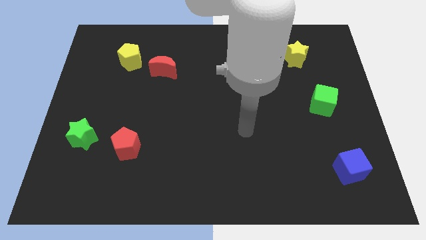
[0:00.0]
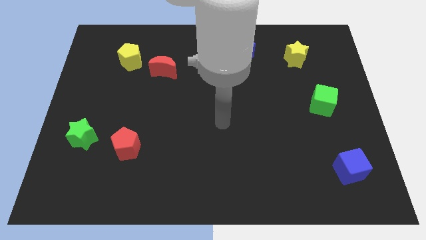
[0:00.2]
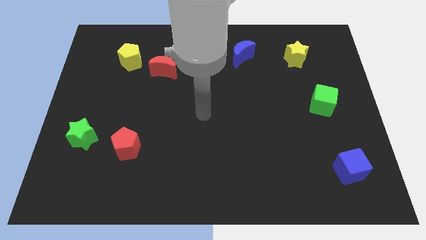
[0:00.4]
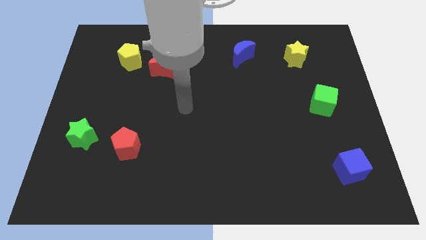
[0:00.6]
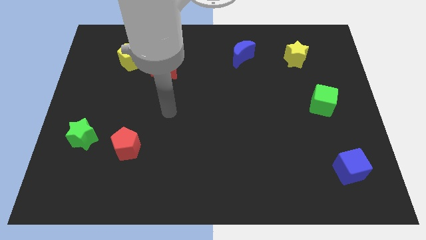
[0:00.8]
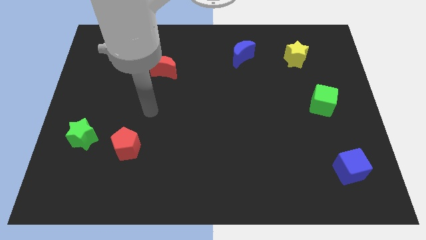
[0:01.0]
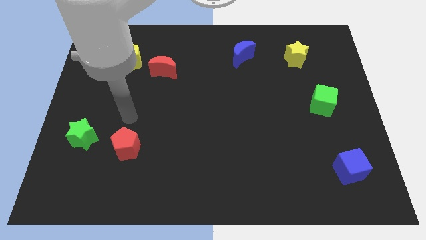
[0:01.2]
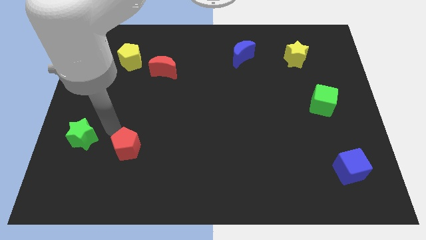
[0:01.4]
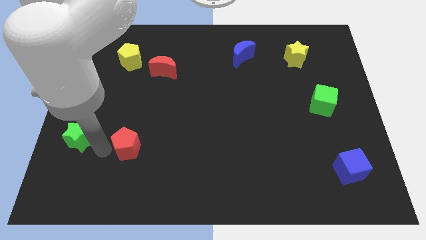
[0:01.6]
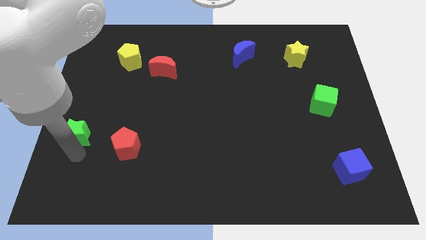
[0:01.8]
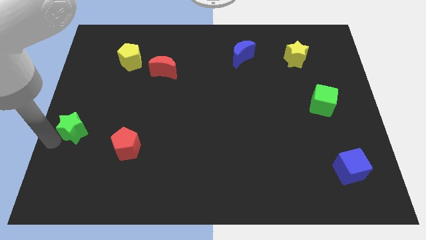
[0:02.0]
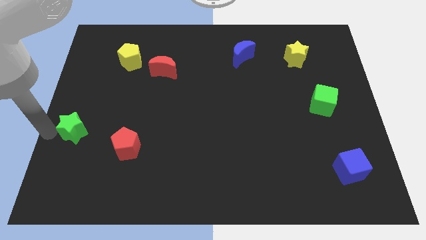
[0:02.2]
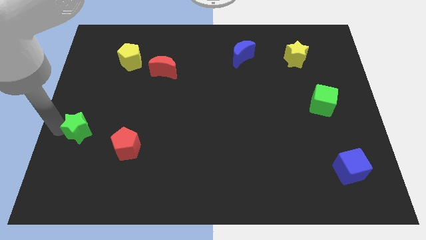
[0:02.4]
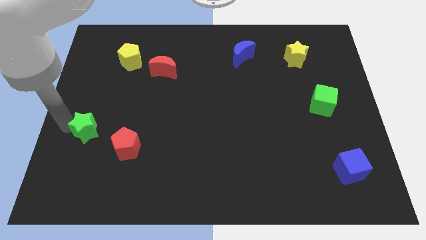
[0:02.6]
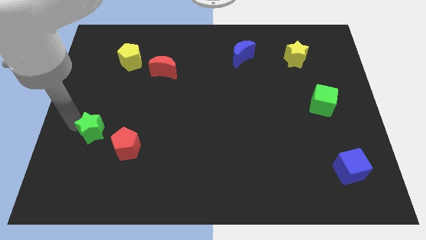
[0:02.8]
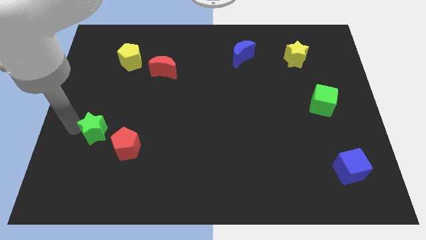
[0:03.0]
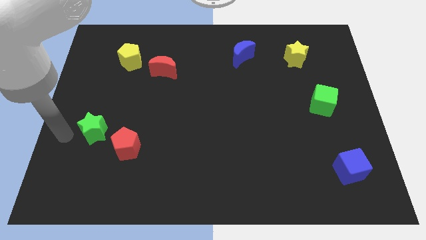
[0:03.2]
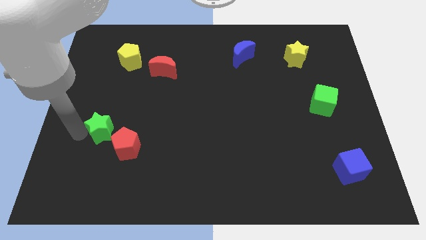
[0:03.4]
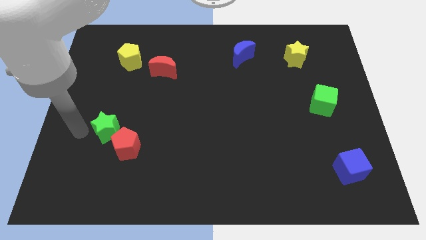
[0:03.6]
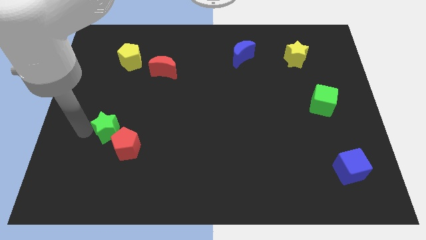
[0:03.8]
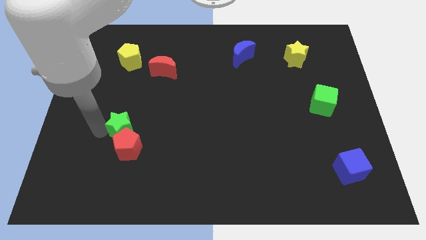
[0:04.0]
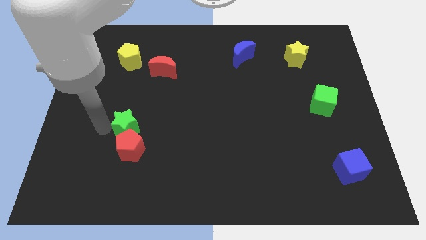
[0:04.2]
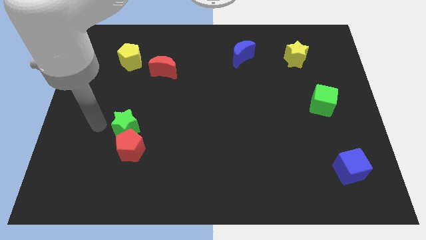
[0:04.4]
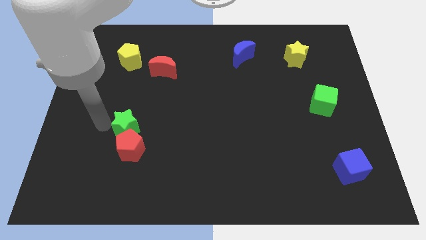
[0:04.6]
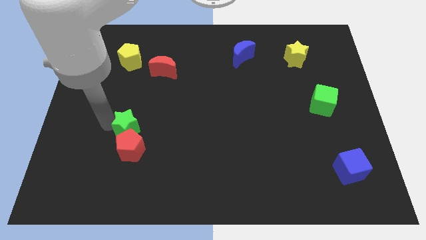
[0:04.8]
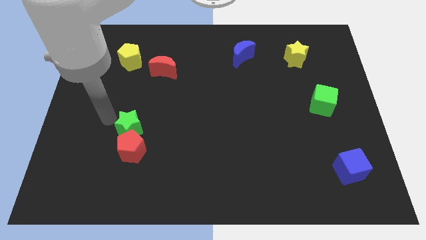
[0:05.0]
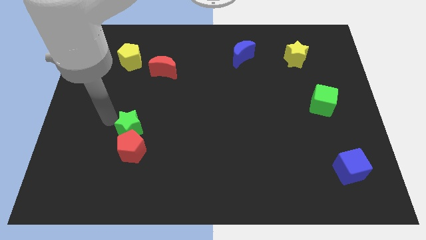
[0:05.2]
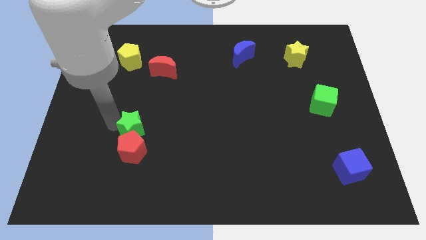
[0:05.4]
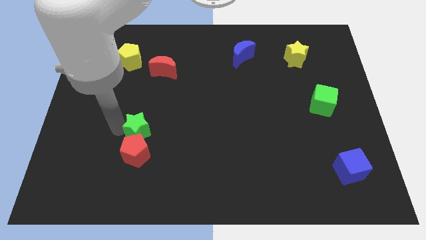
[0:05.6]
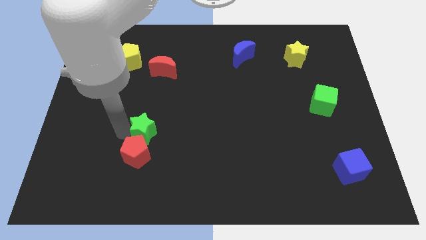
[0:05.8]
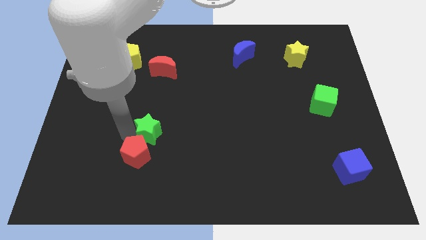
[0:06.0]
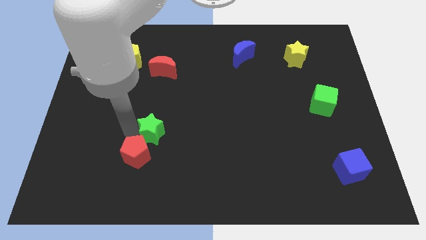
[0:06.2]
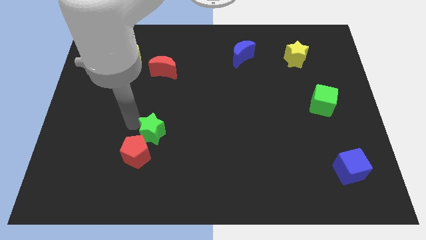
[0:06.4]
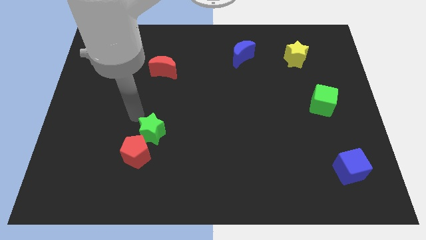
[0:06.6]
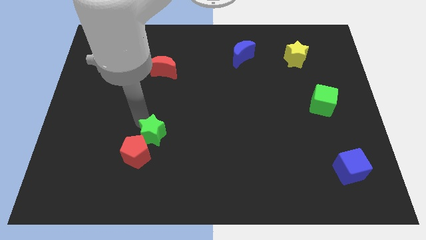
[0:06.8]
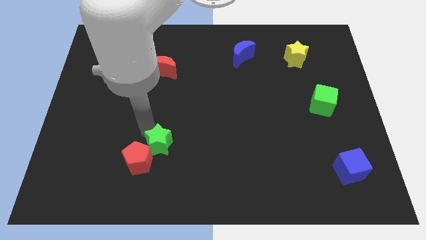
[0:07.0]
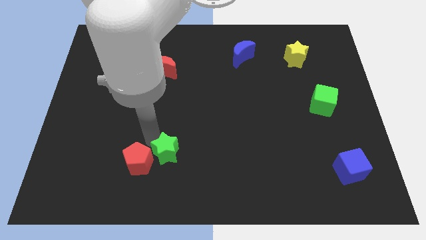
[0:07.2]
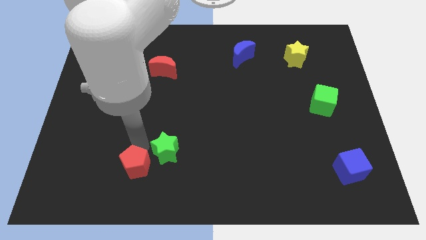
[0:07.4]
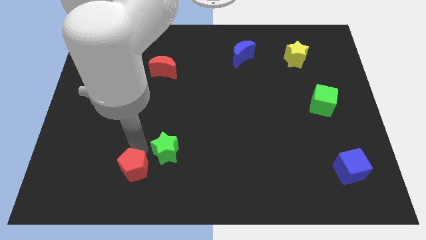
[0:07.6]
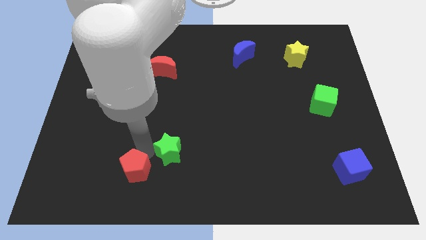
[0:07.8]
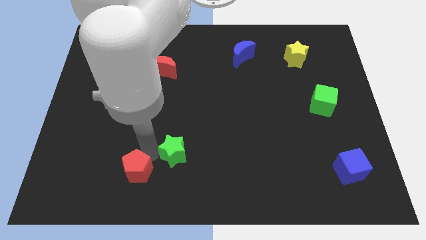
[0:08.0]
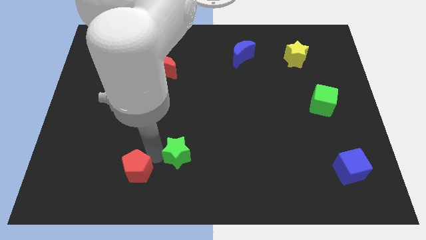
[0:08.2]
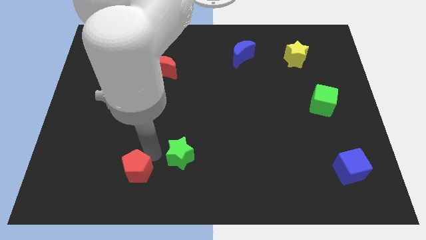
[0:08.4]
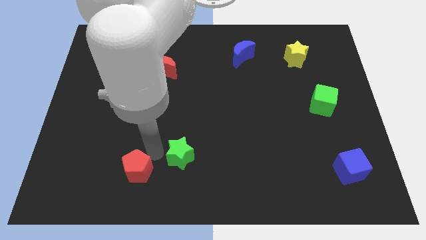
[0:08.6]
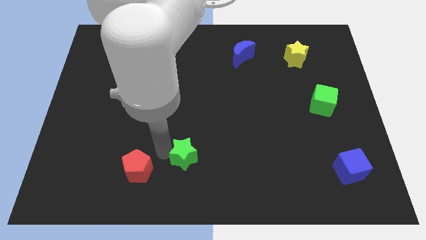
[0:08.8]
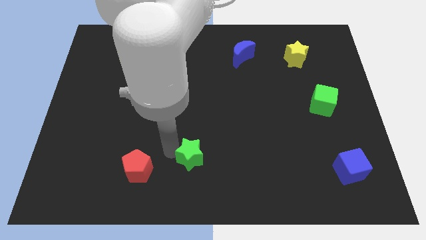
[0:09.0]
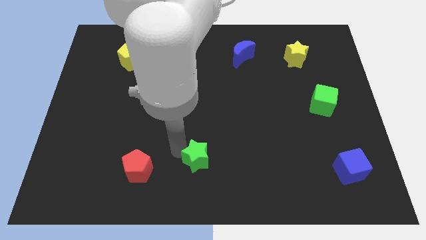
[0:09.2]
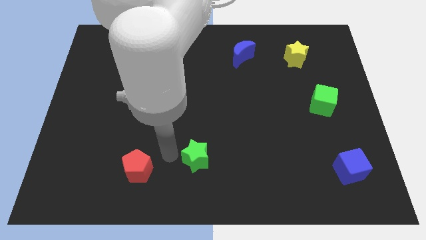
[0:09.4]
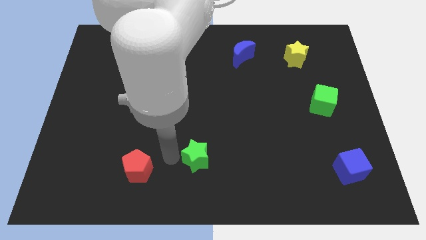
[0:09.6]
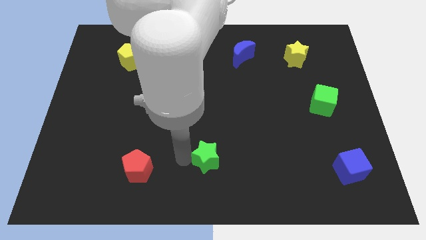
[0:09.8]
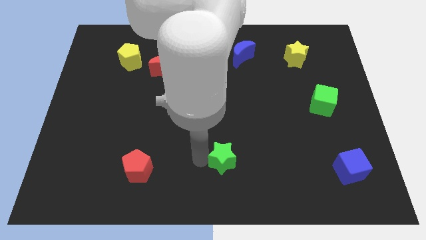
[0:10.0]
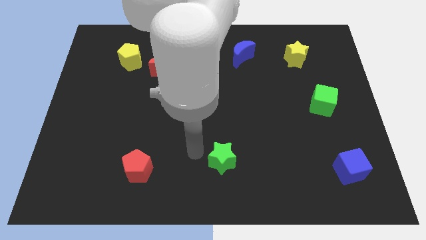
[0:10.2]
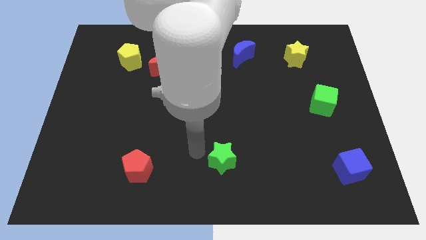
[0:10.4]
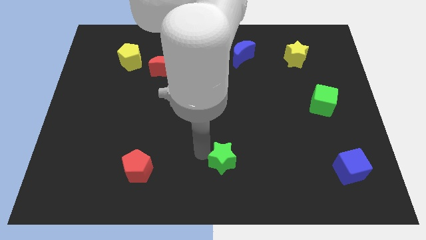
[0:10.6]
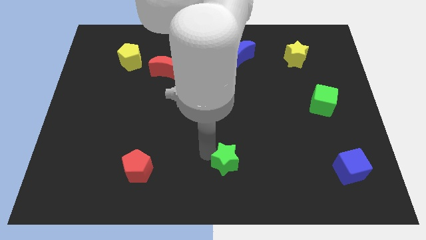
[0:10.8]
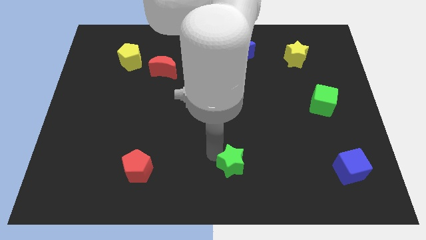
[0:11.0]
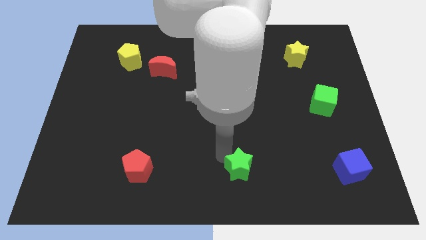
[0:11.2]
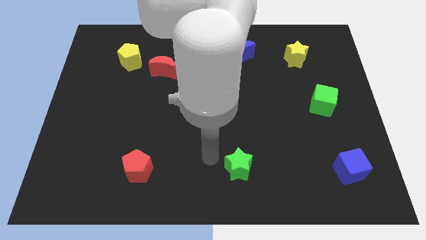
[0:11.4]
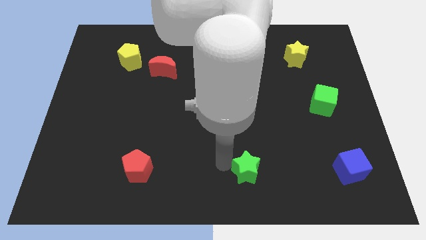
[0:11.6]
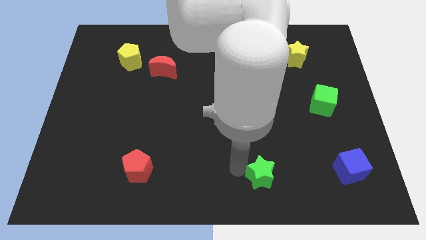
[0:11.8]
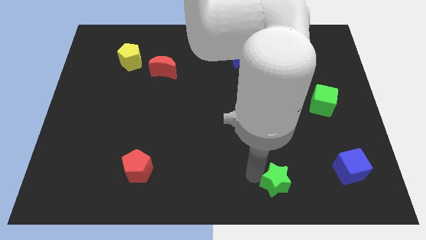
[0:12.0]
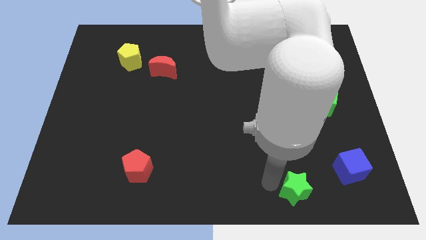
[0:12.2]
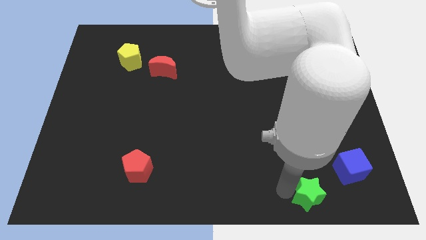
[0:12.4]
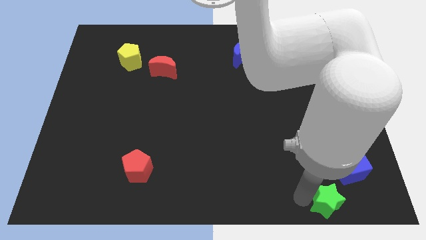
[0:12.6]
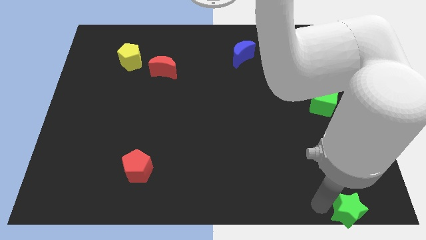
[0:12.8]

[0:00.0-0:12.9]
push the green star to the lower right corner
